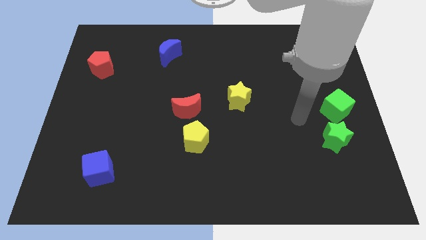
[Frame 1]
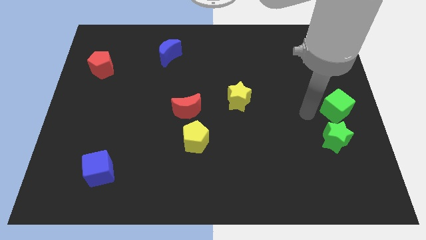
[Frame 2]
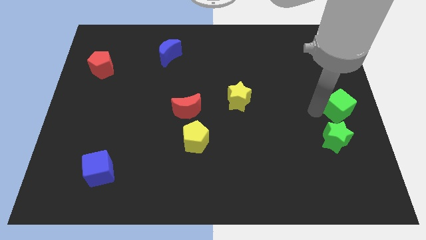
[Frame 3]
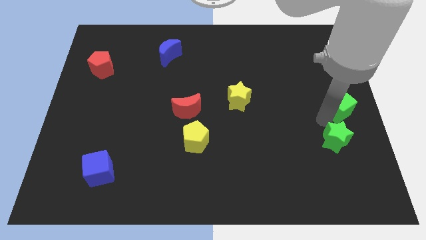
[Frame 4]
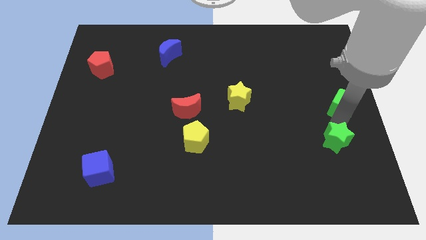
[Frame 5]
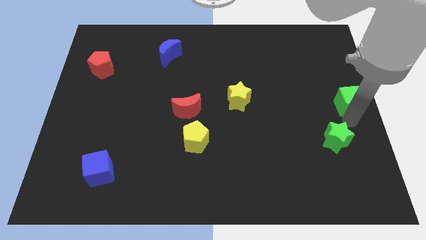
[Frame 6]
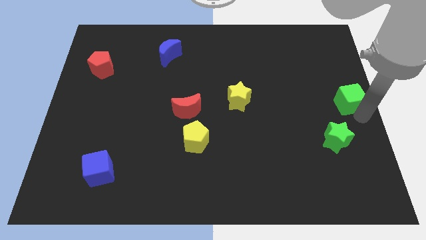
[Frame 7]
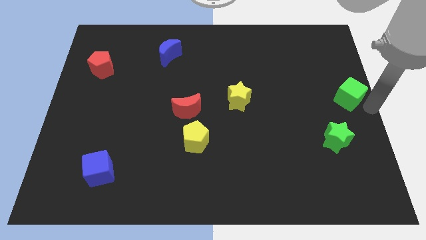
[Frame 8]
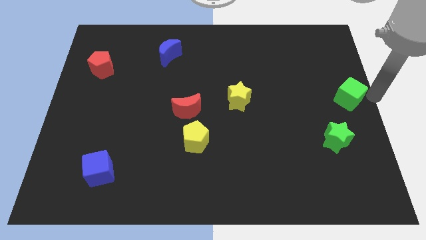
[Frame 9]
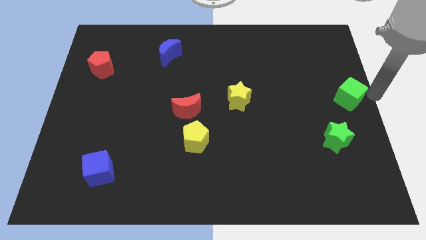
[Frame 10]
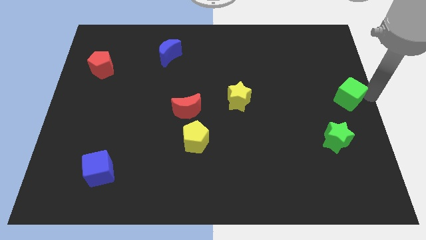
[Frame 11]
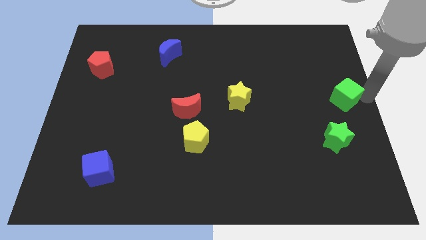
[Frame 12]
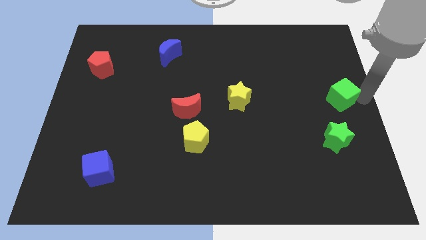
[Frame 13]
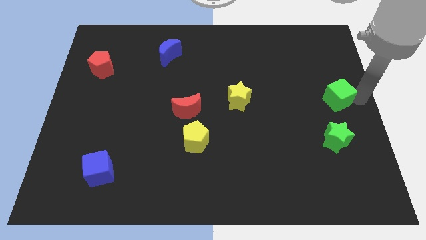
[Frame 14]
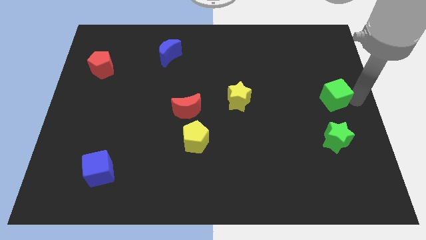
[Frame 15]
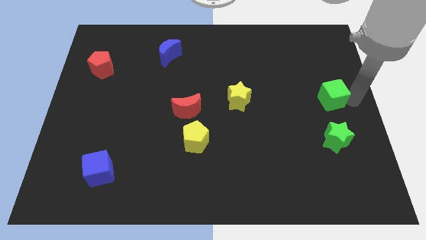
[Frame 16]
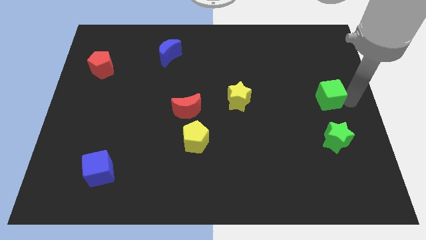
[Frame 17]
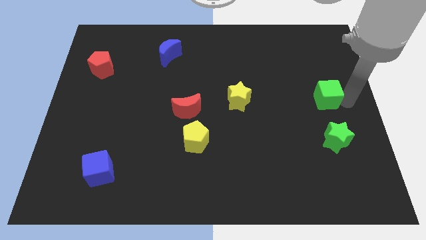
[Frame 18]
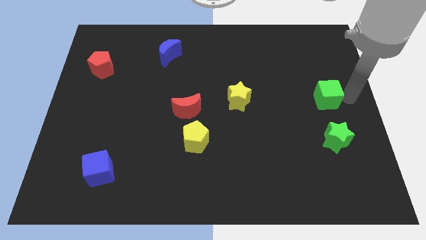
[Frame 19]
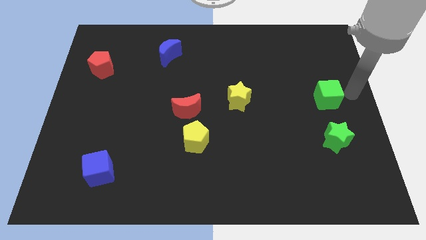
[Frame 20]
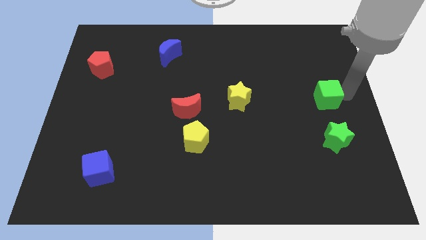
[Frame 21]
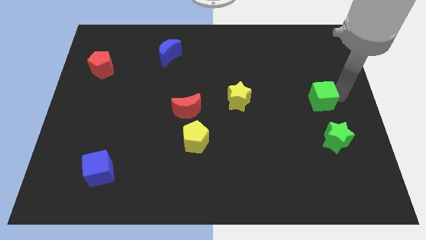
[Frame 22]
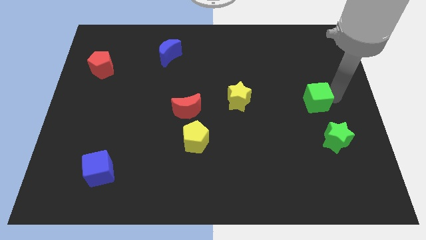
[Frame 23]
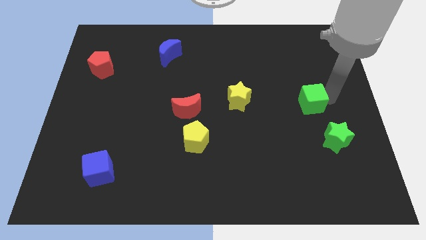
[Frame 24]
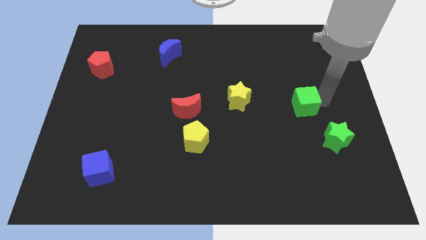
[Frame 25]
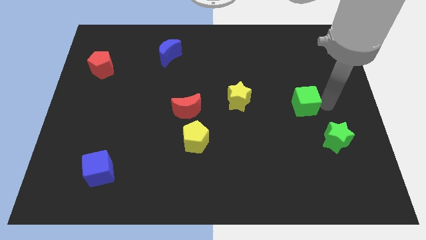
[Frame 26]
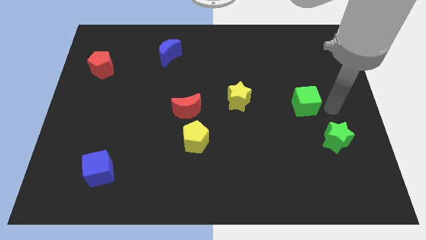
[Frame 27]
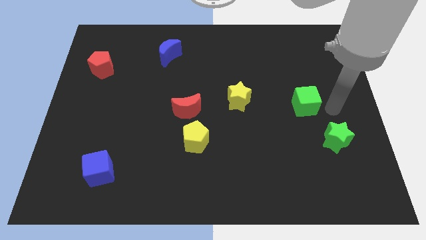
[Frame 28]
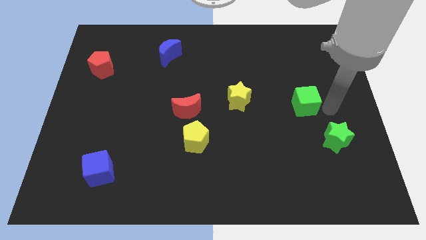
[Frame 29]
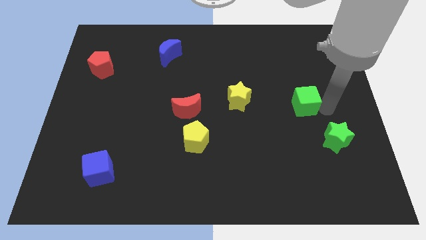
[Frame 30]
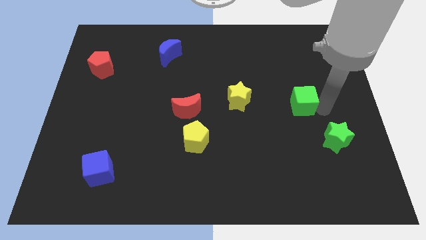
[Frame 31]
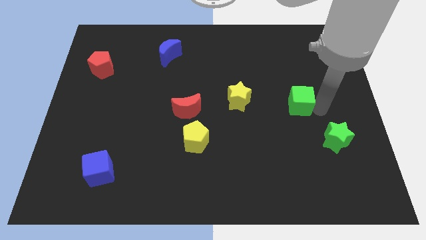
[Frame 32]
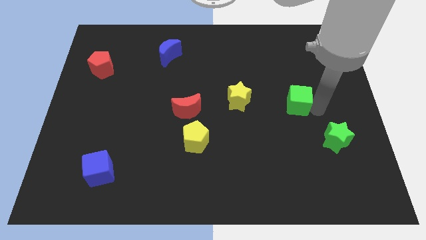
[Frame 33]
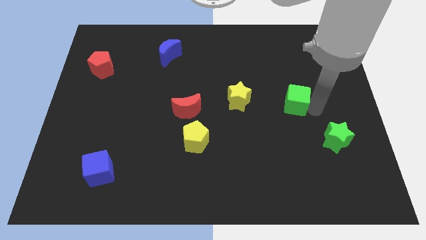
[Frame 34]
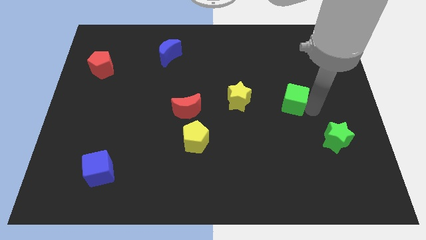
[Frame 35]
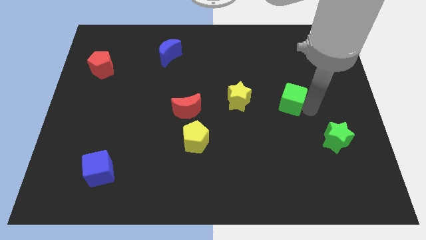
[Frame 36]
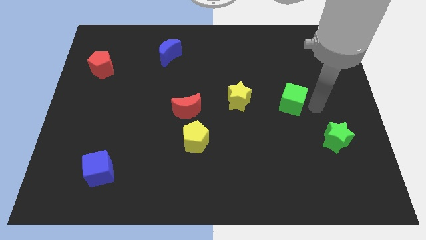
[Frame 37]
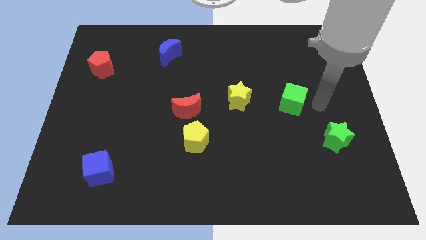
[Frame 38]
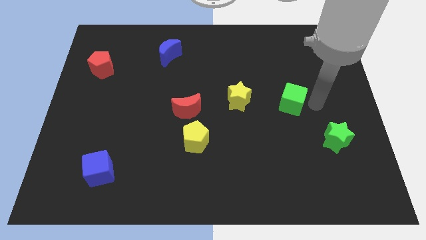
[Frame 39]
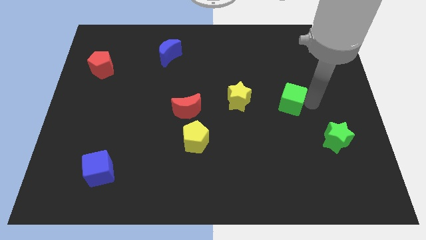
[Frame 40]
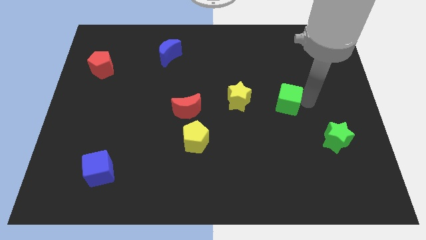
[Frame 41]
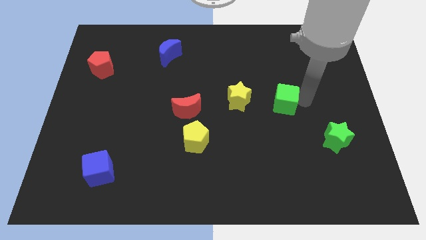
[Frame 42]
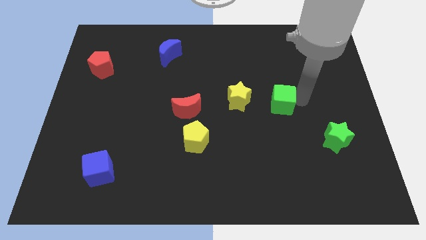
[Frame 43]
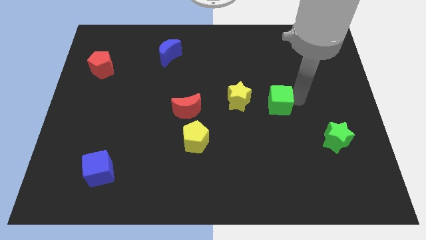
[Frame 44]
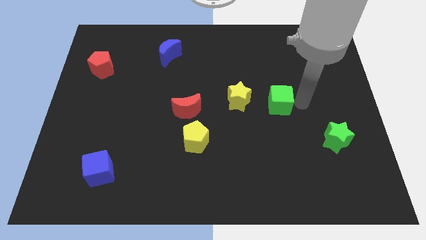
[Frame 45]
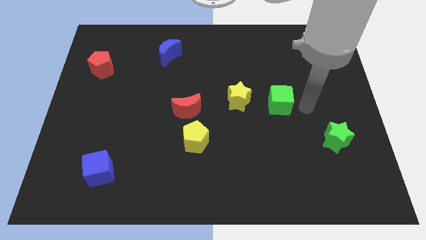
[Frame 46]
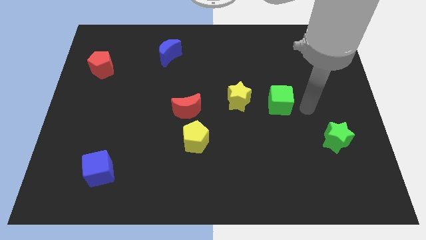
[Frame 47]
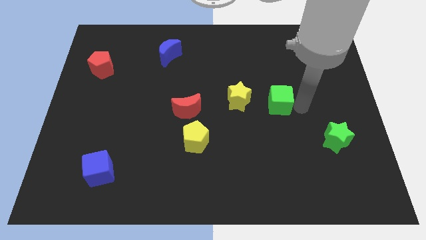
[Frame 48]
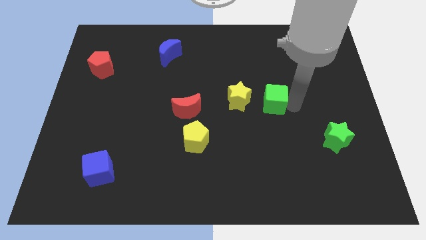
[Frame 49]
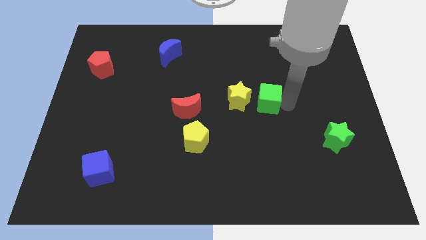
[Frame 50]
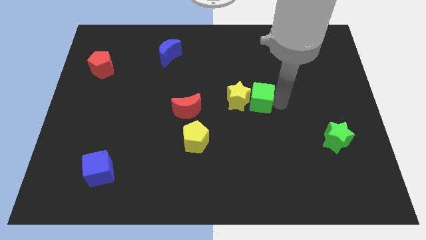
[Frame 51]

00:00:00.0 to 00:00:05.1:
push the green cube to the yellow star
